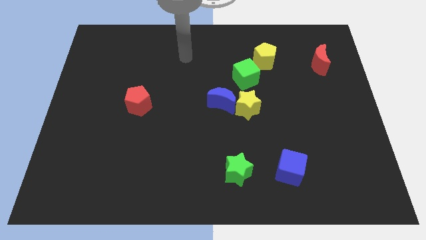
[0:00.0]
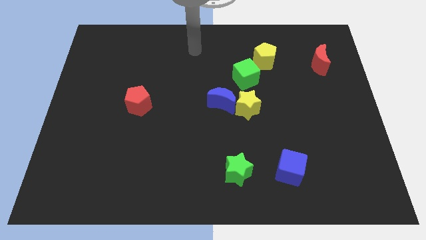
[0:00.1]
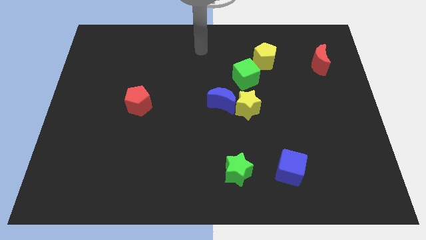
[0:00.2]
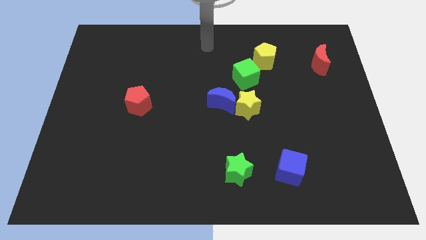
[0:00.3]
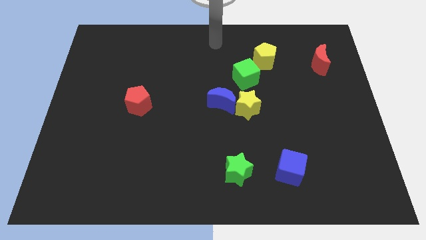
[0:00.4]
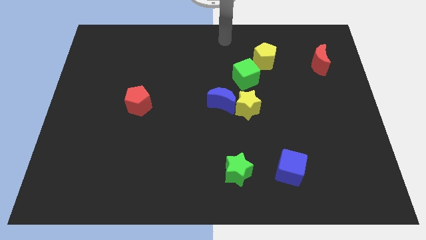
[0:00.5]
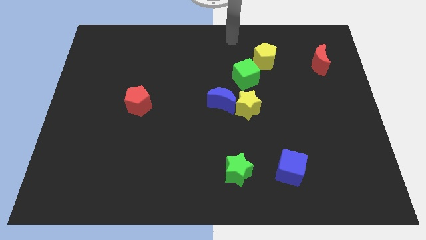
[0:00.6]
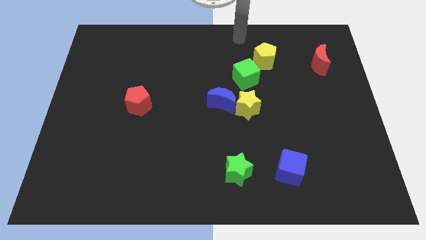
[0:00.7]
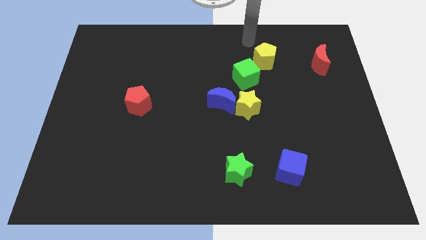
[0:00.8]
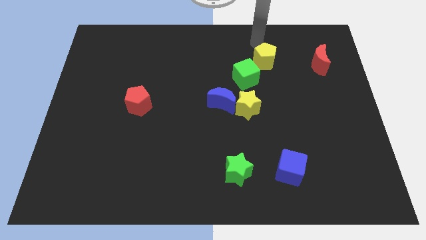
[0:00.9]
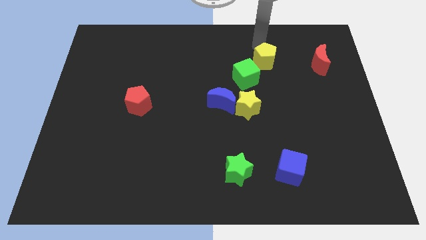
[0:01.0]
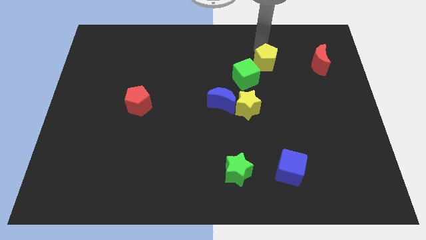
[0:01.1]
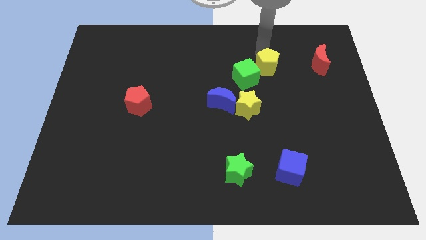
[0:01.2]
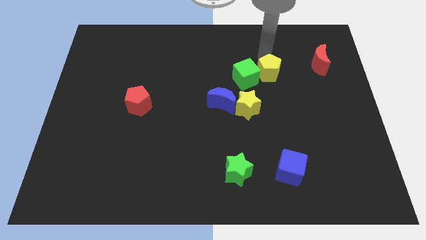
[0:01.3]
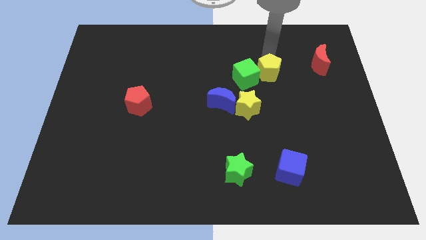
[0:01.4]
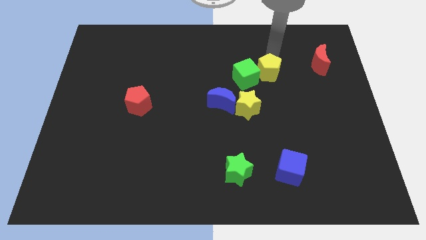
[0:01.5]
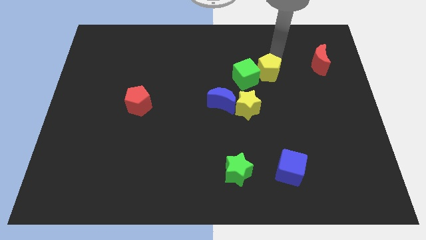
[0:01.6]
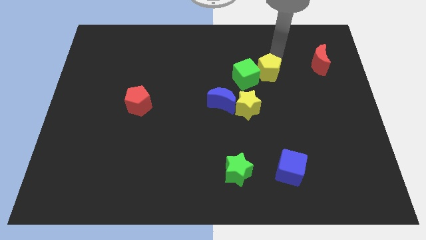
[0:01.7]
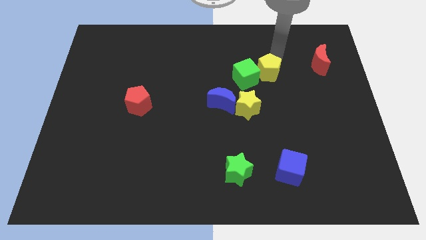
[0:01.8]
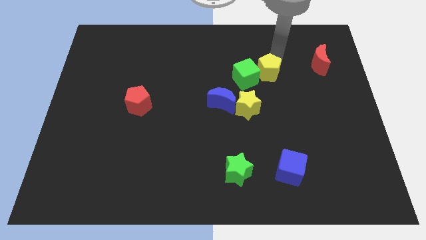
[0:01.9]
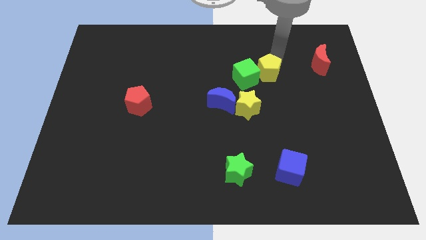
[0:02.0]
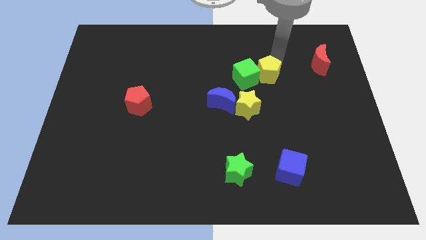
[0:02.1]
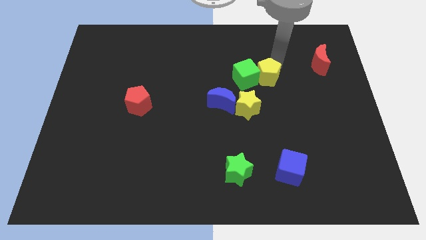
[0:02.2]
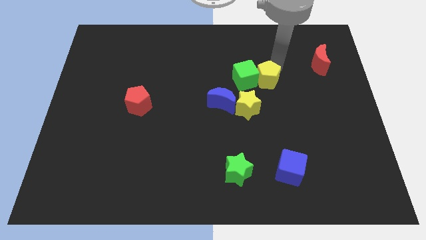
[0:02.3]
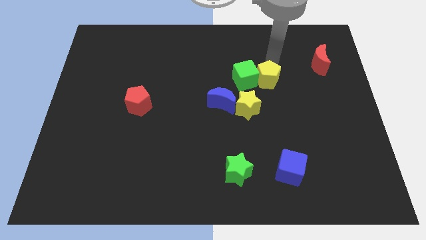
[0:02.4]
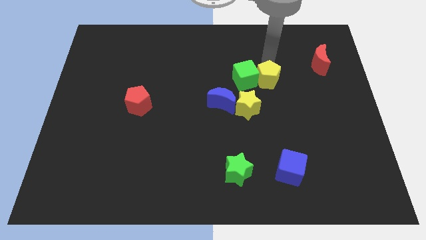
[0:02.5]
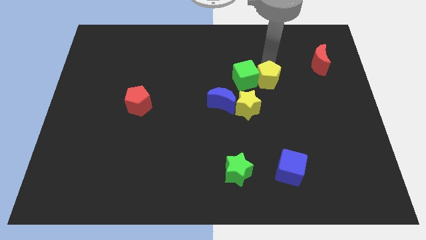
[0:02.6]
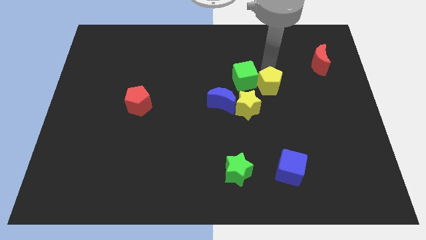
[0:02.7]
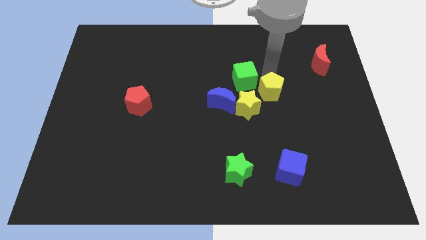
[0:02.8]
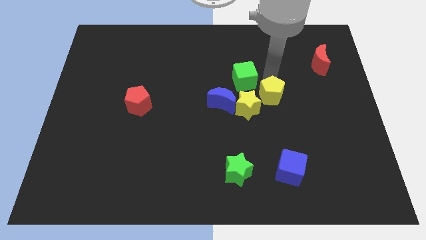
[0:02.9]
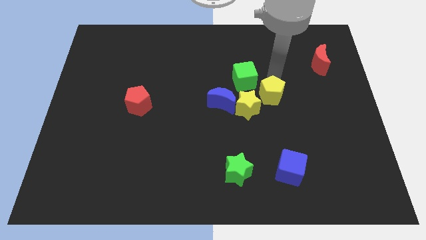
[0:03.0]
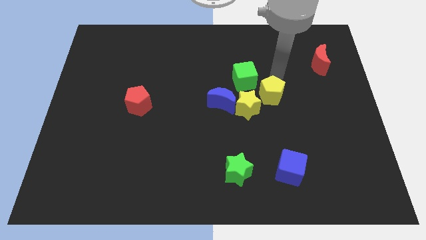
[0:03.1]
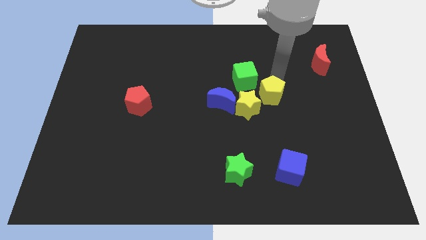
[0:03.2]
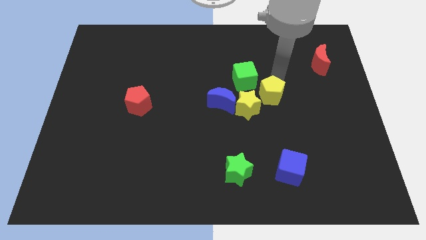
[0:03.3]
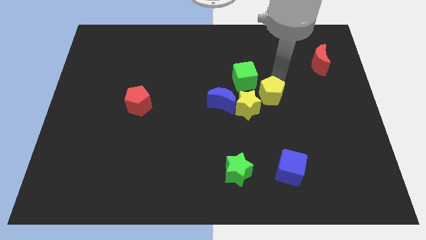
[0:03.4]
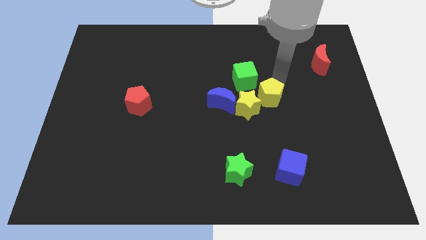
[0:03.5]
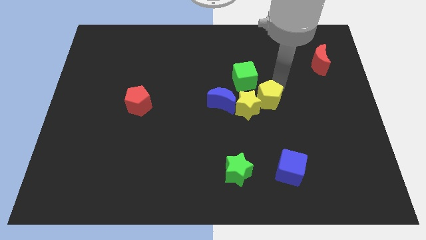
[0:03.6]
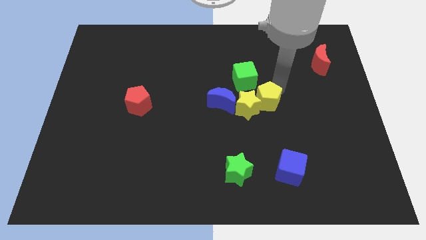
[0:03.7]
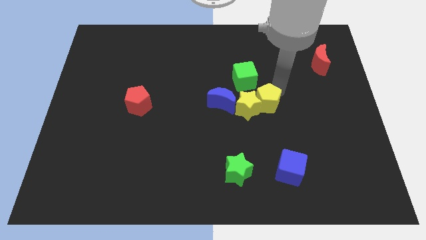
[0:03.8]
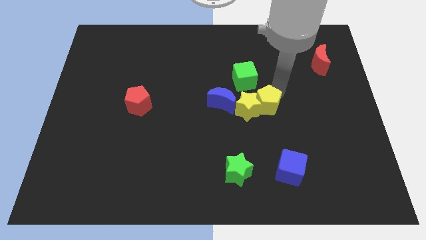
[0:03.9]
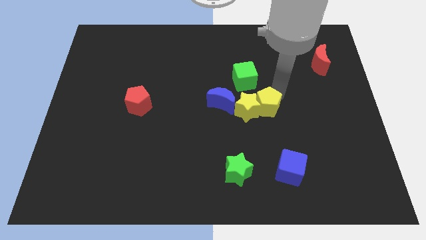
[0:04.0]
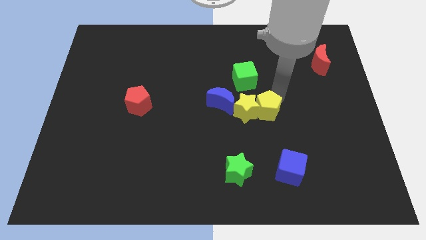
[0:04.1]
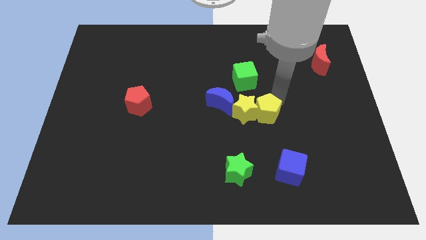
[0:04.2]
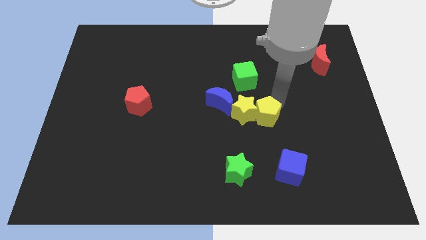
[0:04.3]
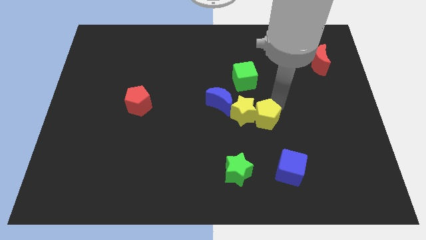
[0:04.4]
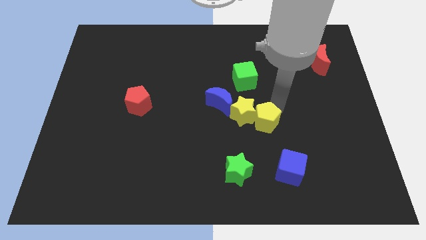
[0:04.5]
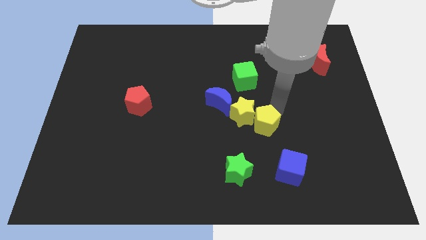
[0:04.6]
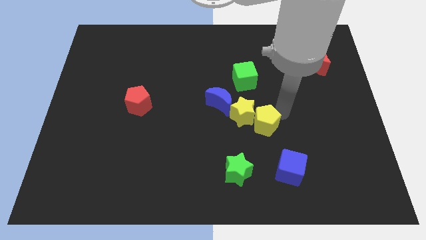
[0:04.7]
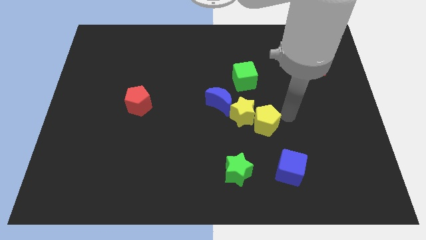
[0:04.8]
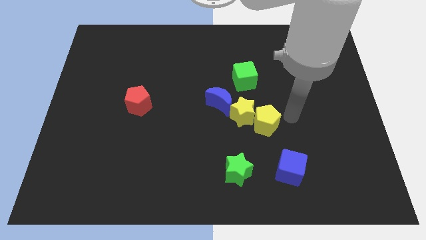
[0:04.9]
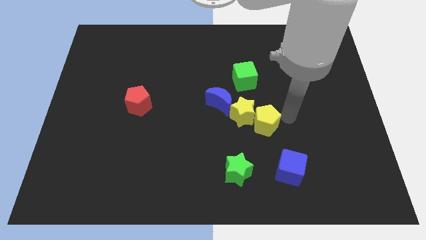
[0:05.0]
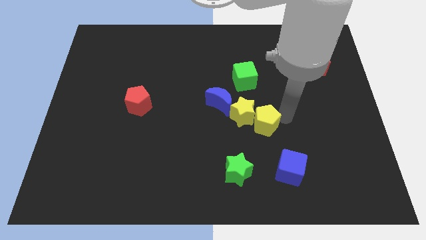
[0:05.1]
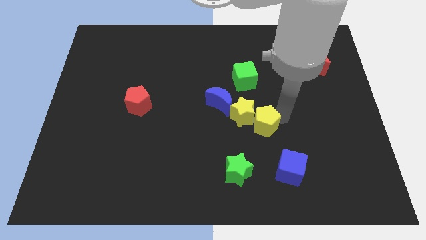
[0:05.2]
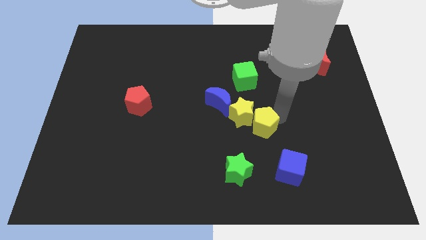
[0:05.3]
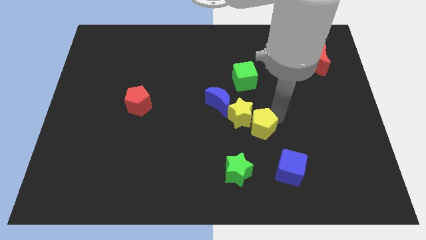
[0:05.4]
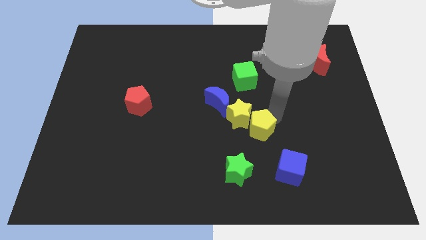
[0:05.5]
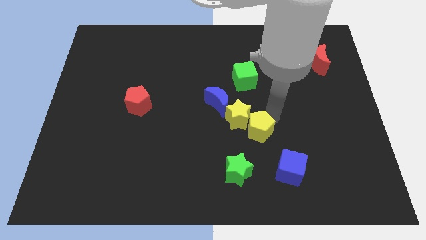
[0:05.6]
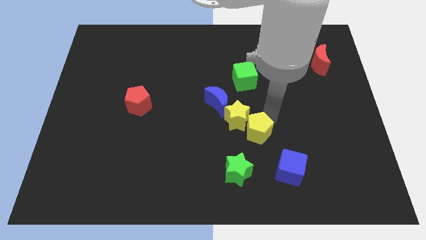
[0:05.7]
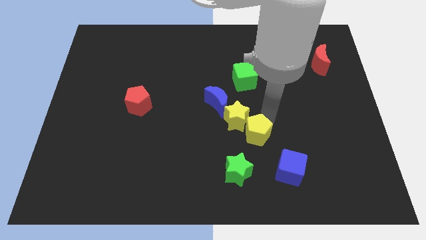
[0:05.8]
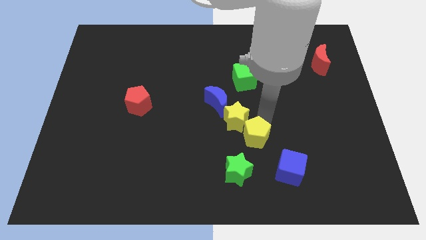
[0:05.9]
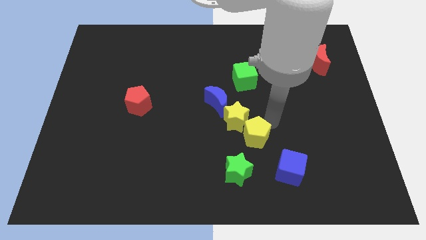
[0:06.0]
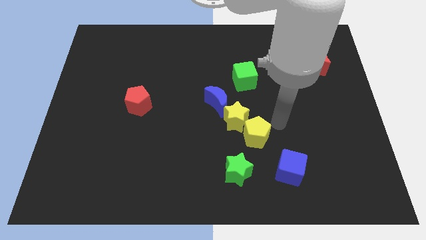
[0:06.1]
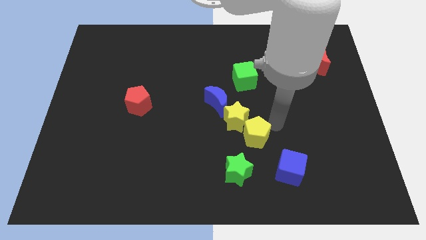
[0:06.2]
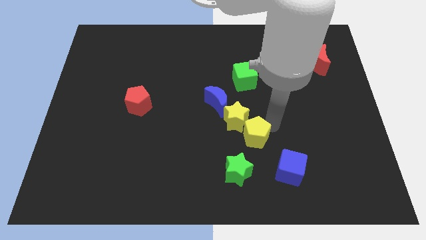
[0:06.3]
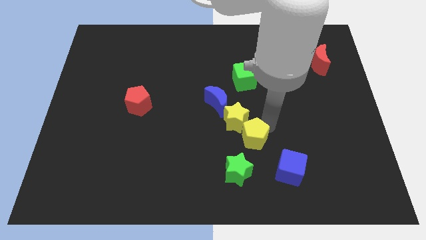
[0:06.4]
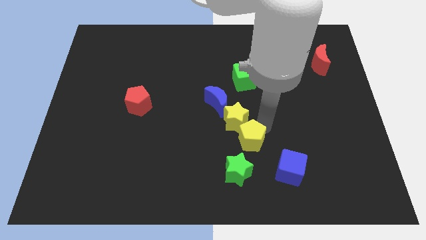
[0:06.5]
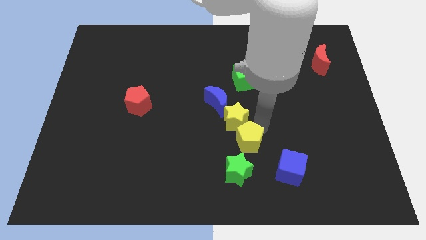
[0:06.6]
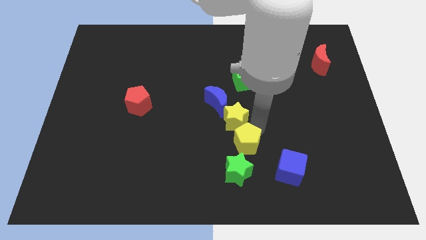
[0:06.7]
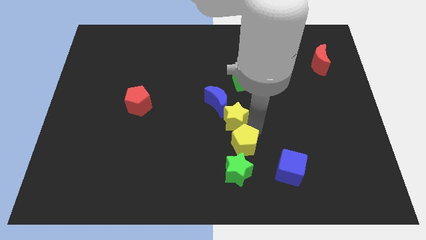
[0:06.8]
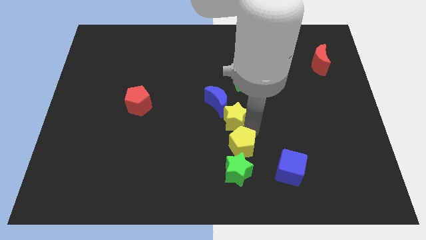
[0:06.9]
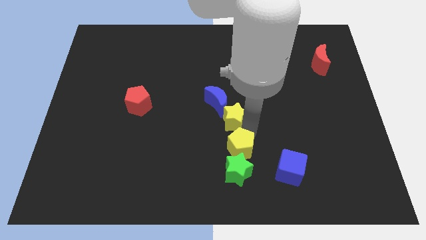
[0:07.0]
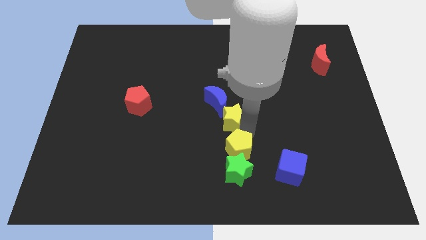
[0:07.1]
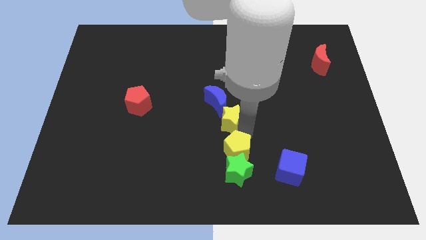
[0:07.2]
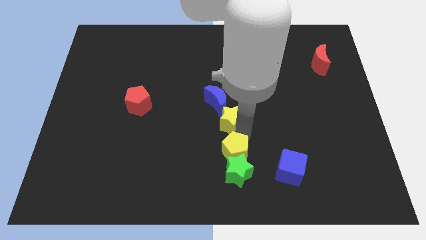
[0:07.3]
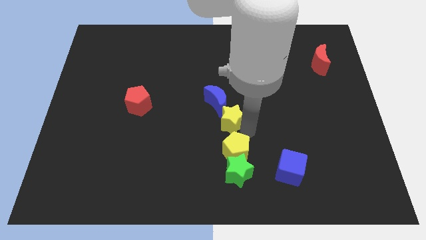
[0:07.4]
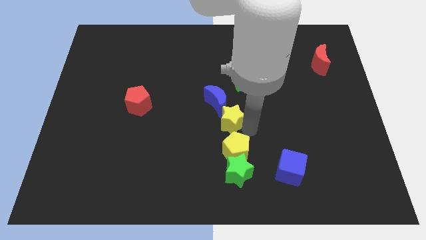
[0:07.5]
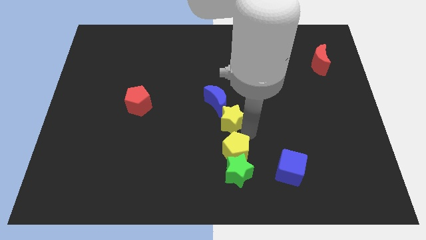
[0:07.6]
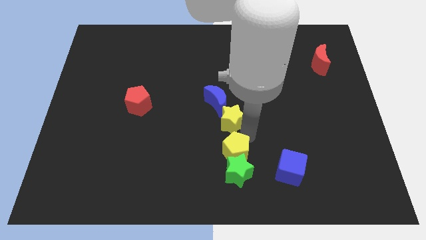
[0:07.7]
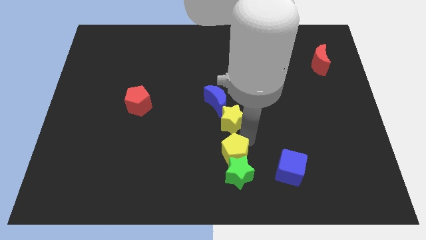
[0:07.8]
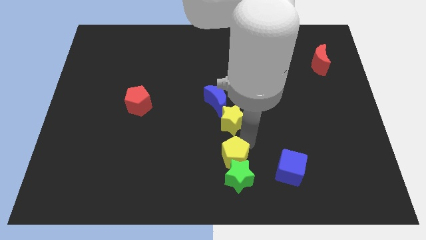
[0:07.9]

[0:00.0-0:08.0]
move the yellow pentagon to the bottom
